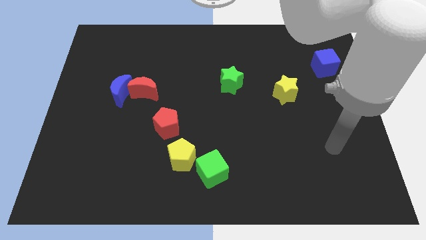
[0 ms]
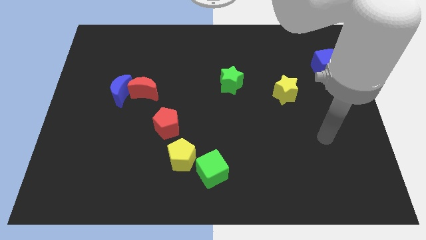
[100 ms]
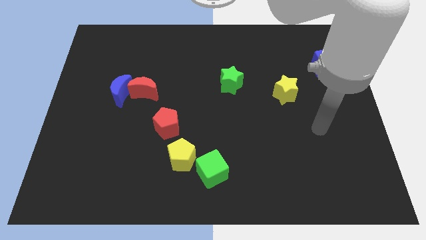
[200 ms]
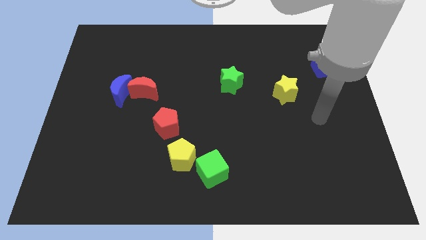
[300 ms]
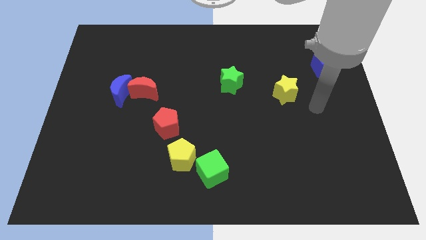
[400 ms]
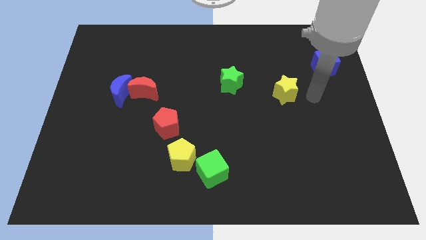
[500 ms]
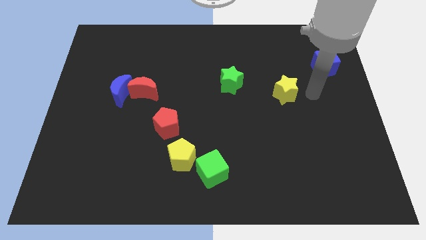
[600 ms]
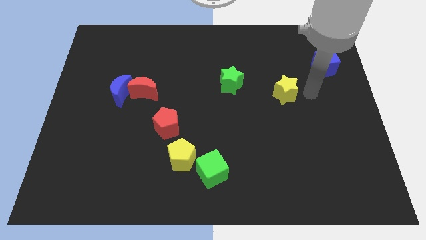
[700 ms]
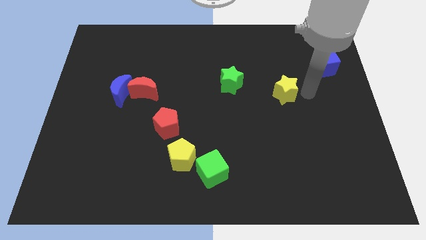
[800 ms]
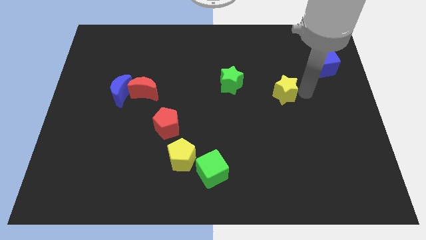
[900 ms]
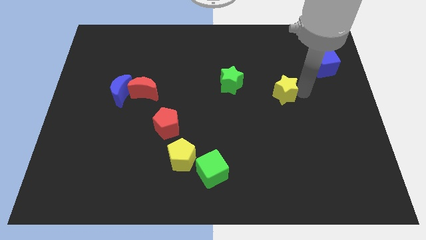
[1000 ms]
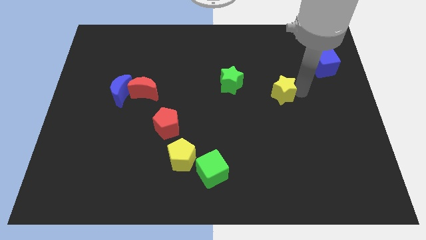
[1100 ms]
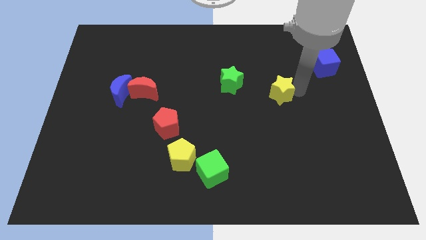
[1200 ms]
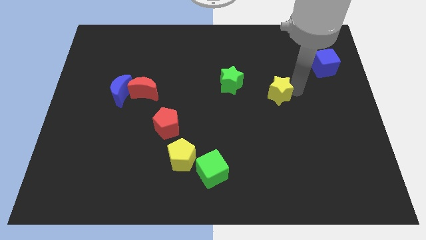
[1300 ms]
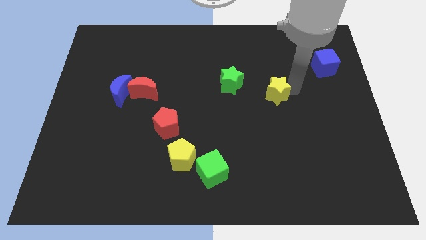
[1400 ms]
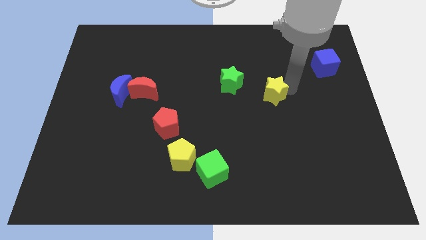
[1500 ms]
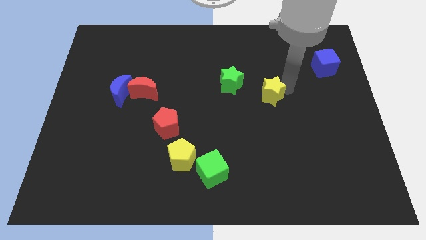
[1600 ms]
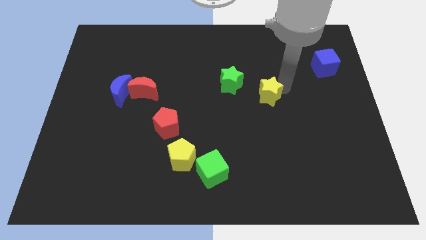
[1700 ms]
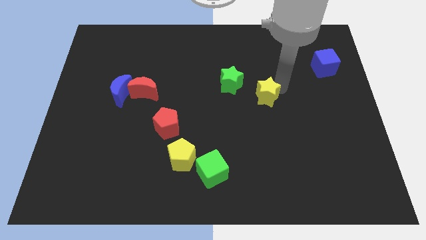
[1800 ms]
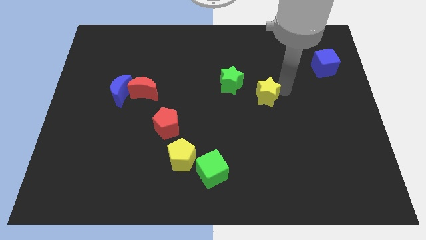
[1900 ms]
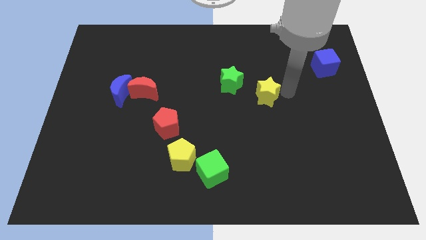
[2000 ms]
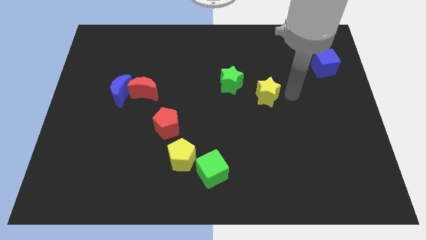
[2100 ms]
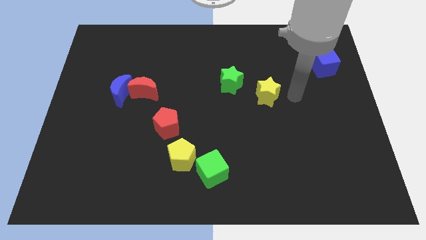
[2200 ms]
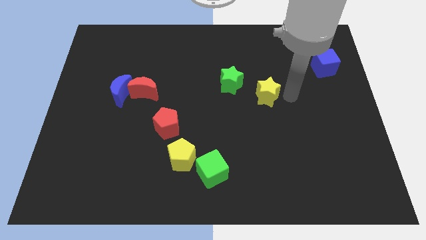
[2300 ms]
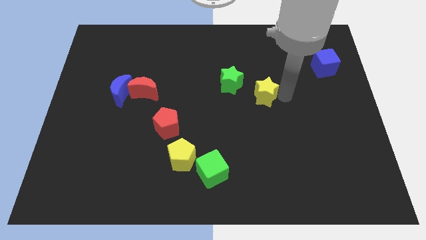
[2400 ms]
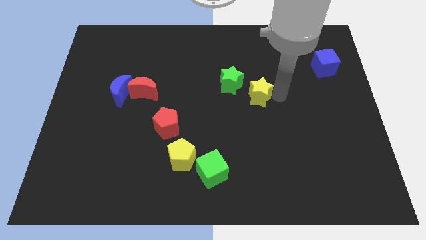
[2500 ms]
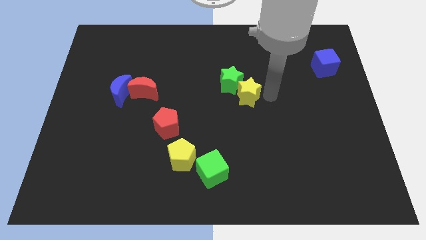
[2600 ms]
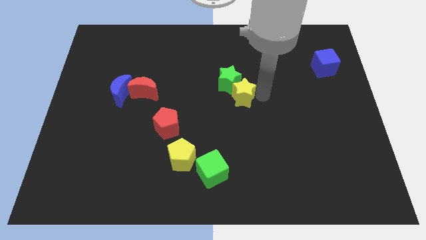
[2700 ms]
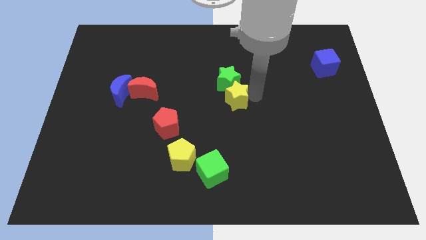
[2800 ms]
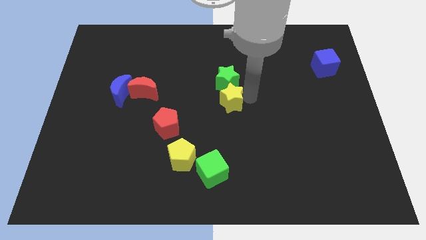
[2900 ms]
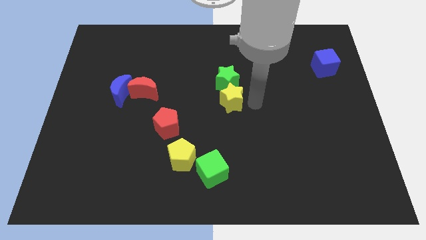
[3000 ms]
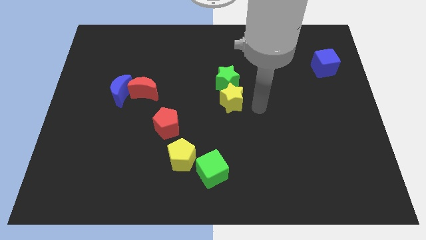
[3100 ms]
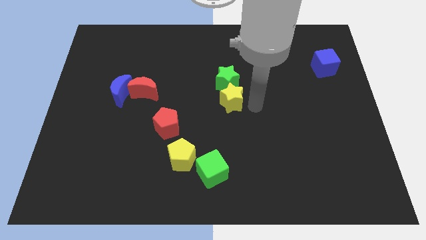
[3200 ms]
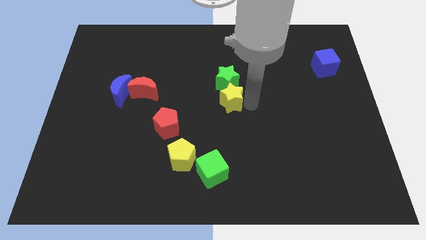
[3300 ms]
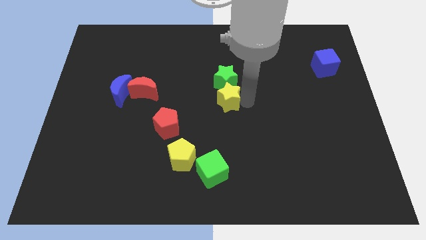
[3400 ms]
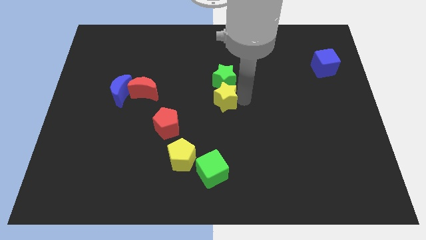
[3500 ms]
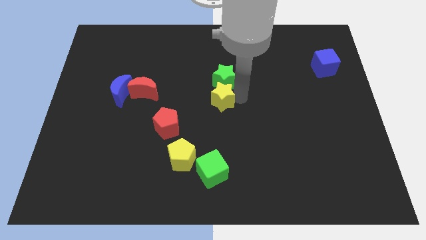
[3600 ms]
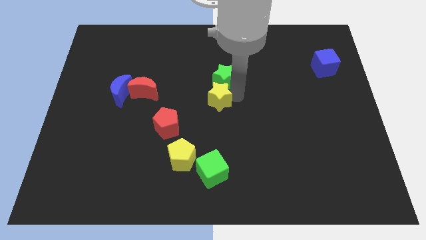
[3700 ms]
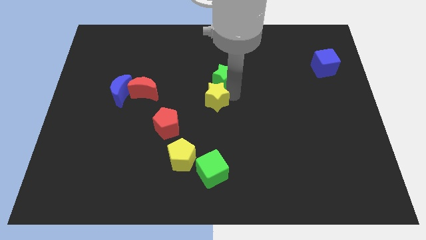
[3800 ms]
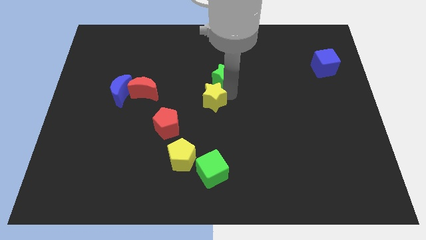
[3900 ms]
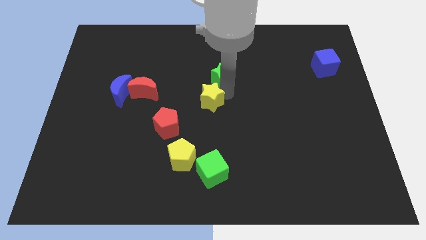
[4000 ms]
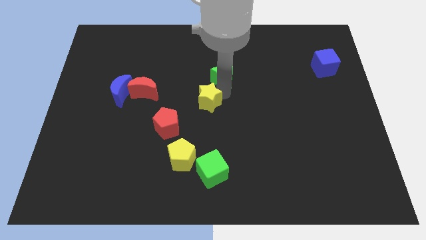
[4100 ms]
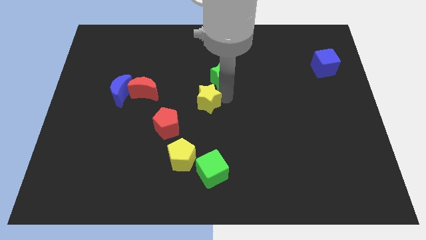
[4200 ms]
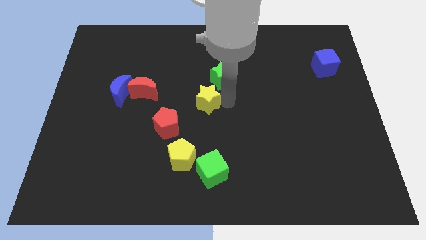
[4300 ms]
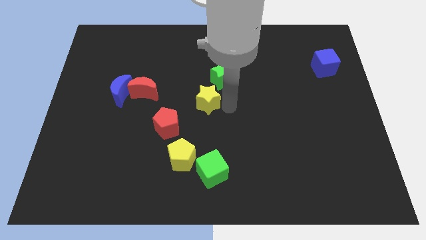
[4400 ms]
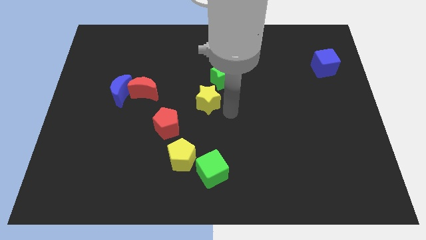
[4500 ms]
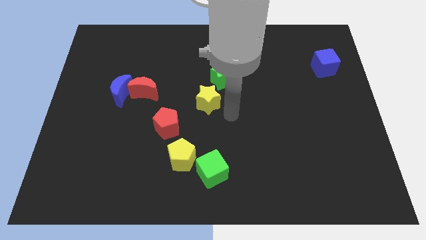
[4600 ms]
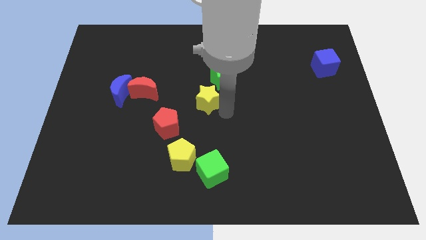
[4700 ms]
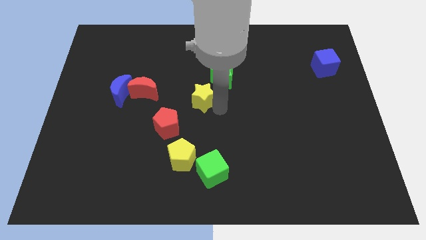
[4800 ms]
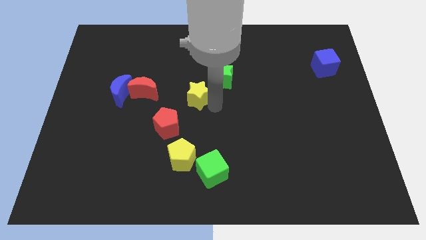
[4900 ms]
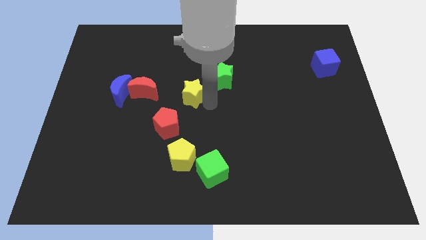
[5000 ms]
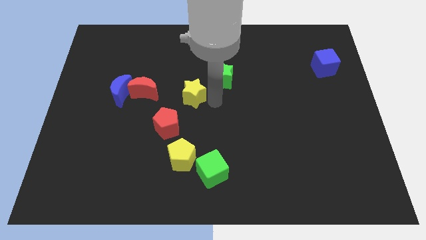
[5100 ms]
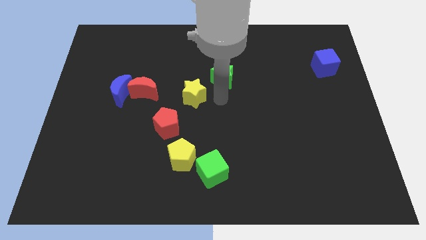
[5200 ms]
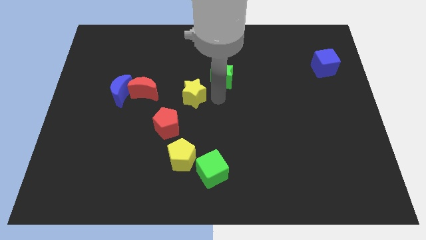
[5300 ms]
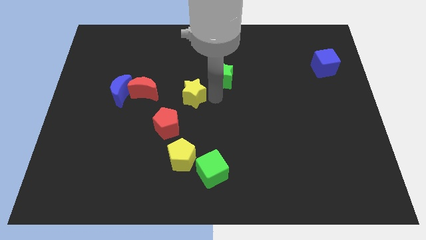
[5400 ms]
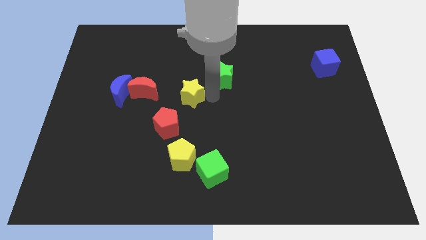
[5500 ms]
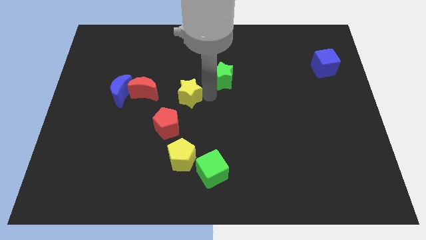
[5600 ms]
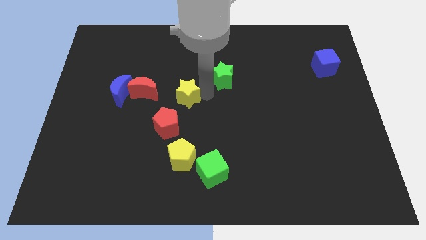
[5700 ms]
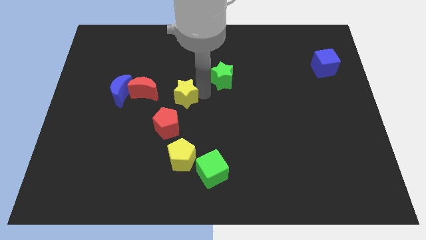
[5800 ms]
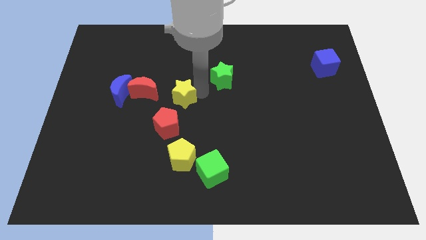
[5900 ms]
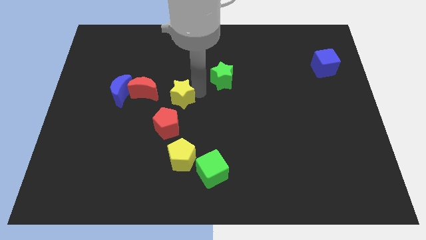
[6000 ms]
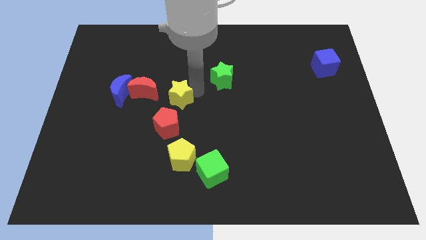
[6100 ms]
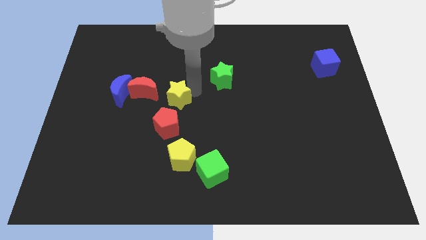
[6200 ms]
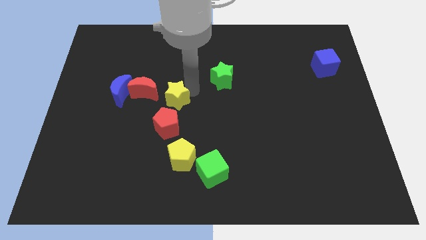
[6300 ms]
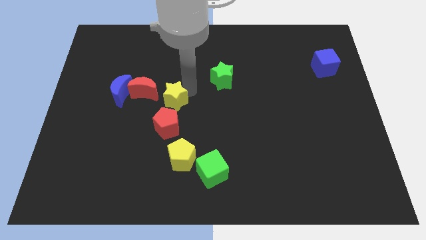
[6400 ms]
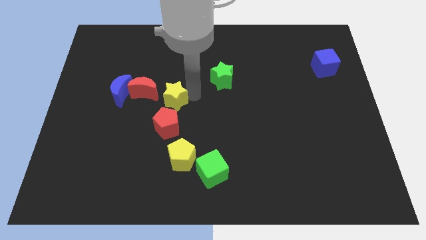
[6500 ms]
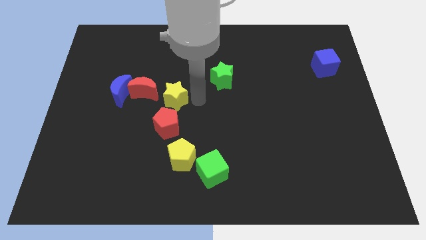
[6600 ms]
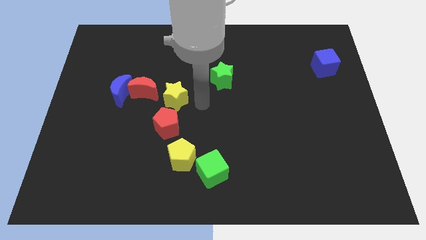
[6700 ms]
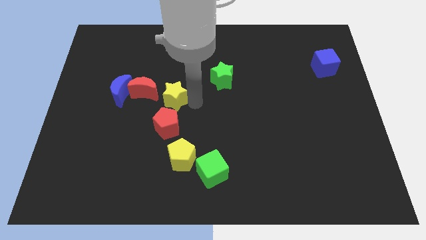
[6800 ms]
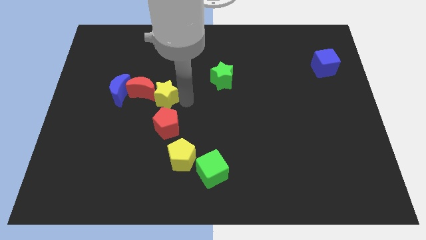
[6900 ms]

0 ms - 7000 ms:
move the yellow star towards the red moon
